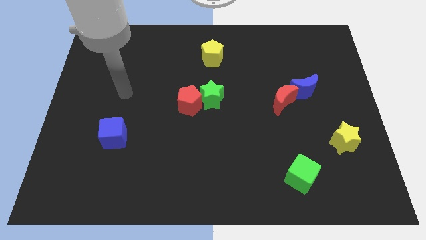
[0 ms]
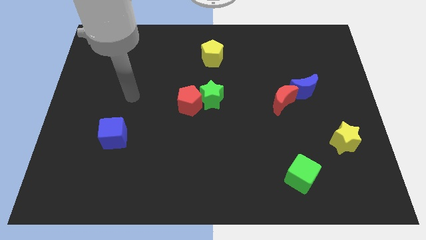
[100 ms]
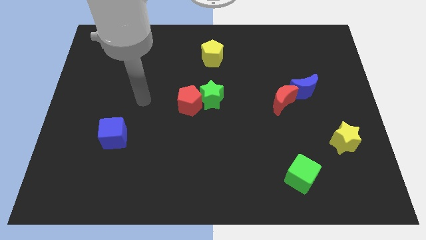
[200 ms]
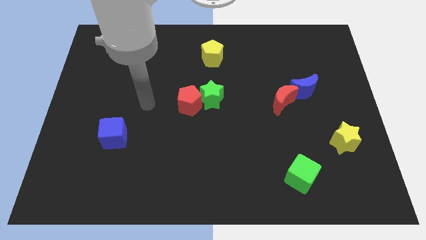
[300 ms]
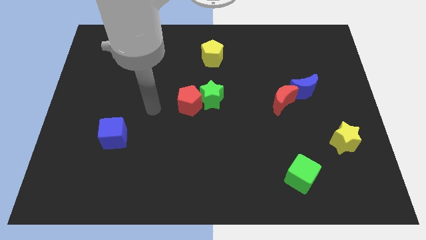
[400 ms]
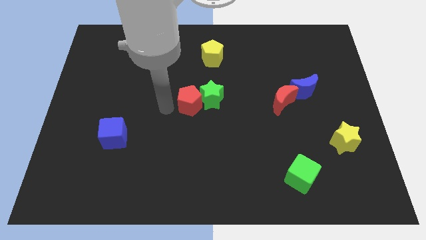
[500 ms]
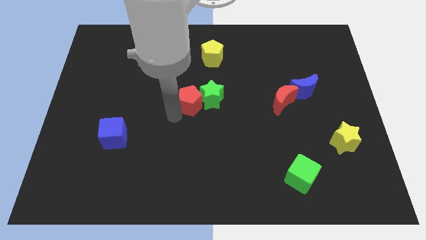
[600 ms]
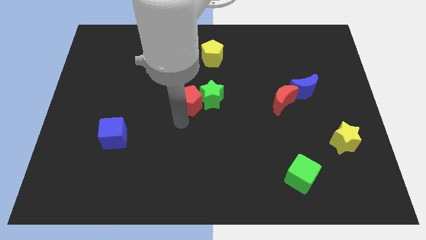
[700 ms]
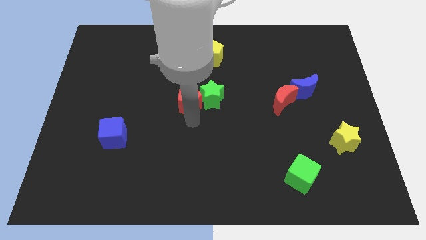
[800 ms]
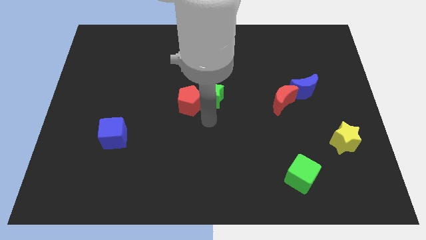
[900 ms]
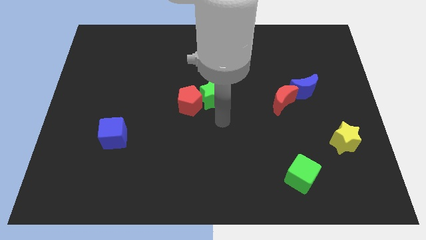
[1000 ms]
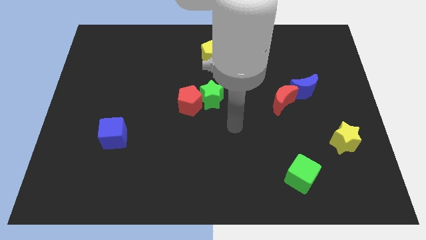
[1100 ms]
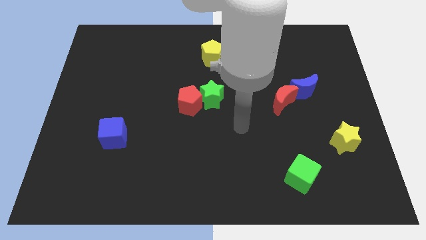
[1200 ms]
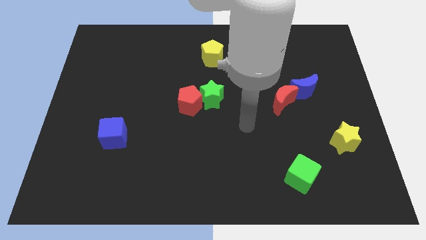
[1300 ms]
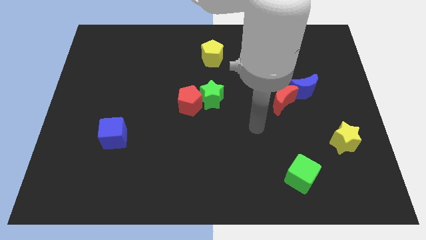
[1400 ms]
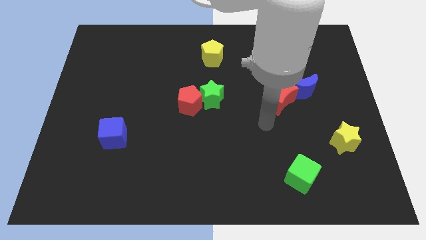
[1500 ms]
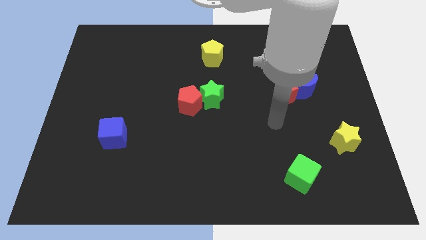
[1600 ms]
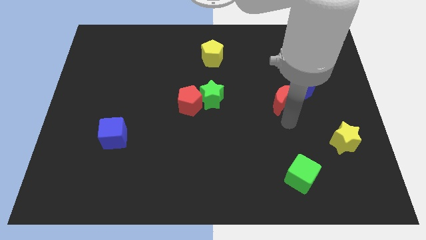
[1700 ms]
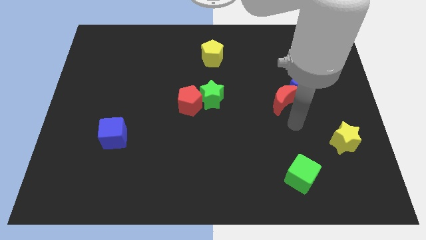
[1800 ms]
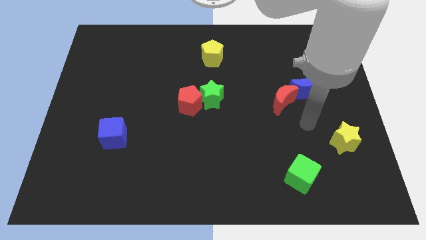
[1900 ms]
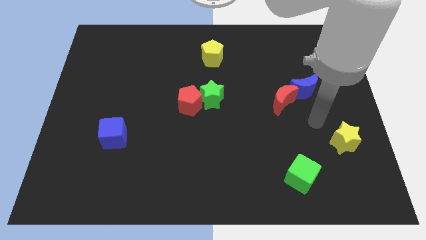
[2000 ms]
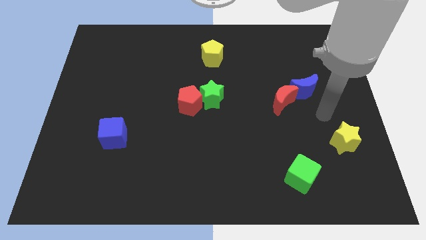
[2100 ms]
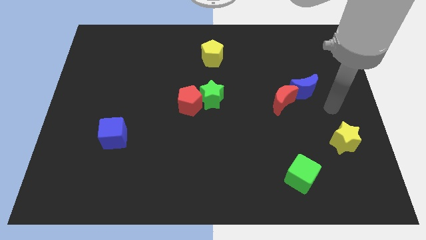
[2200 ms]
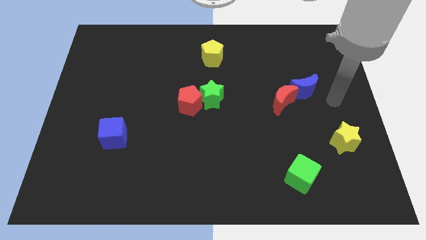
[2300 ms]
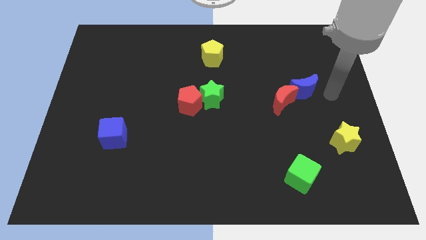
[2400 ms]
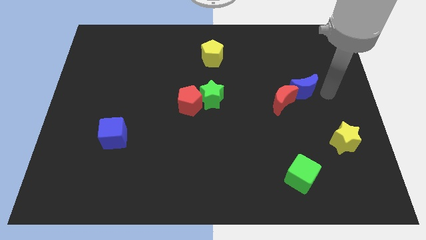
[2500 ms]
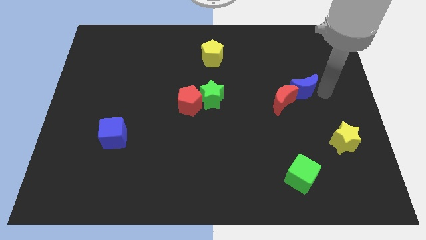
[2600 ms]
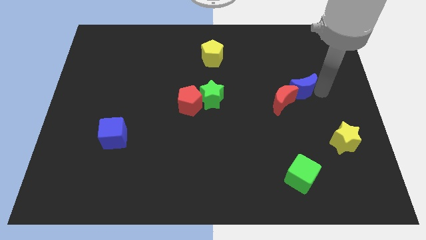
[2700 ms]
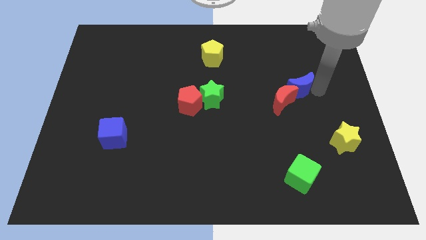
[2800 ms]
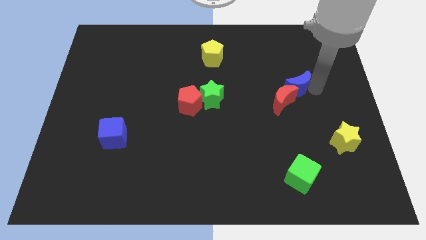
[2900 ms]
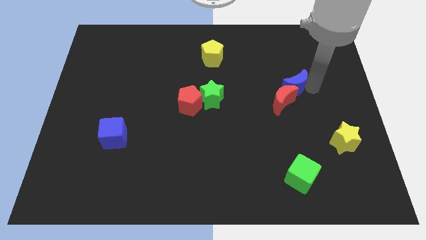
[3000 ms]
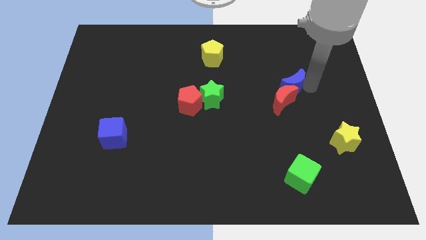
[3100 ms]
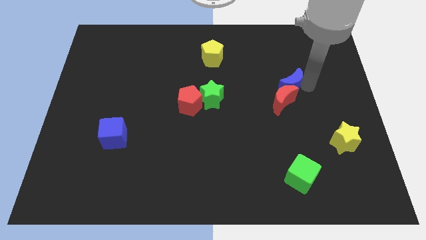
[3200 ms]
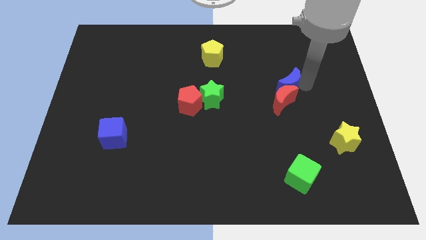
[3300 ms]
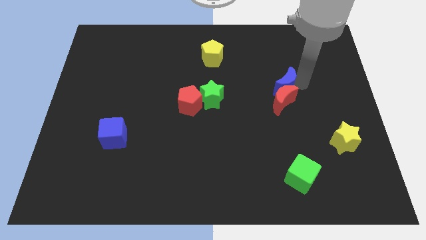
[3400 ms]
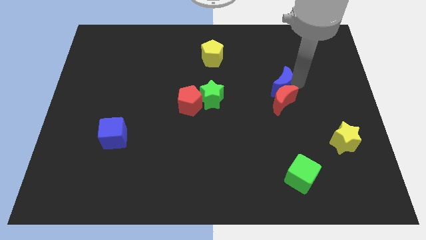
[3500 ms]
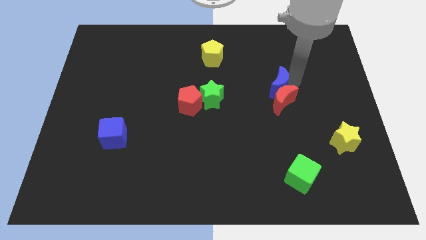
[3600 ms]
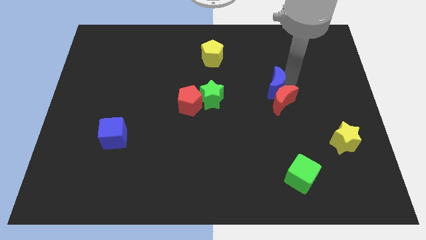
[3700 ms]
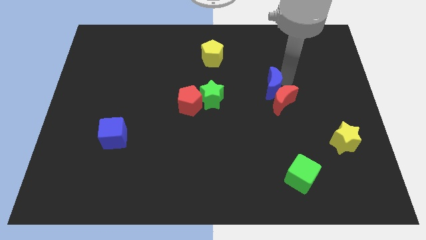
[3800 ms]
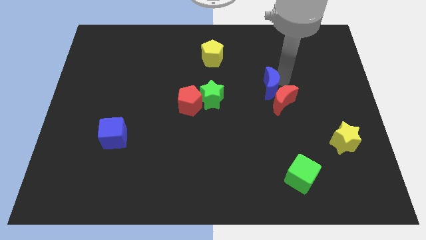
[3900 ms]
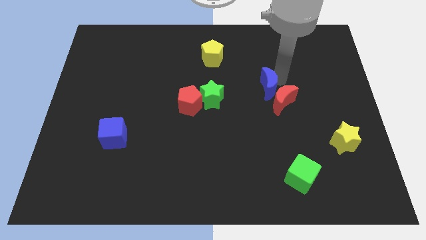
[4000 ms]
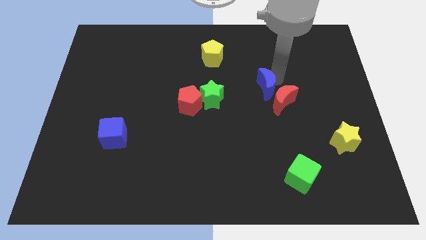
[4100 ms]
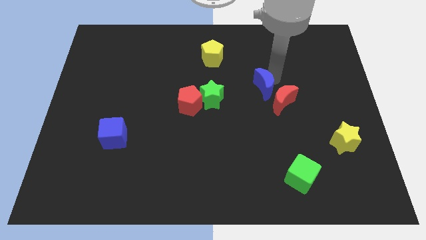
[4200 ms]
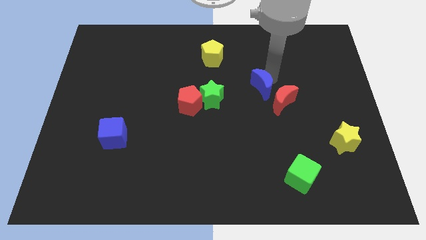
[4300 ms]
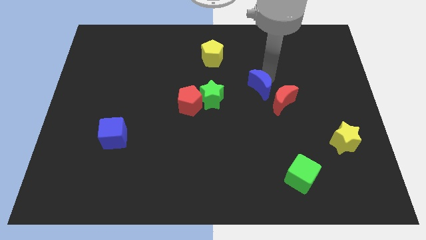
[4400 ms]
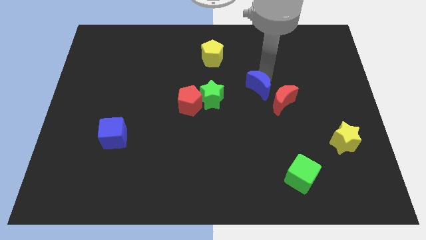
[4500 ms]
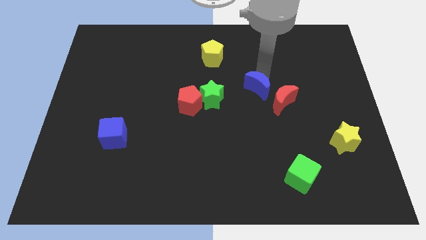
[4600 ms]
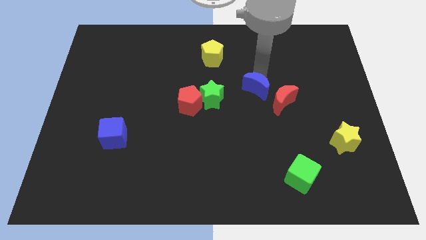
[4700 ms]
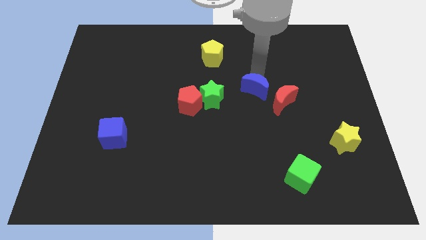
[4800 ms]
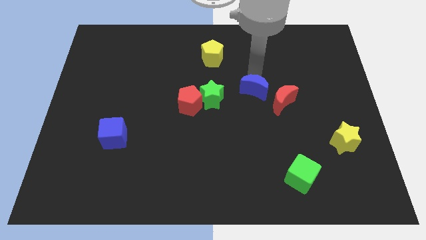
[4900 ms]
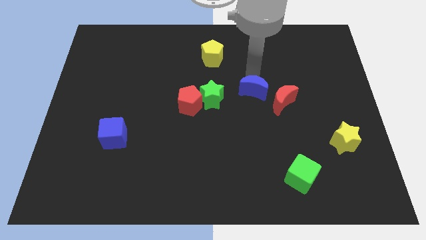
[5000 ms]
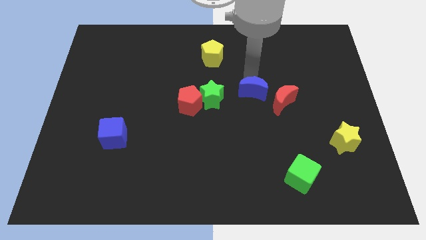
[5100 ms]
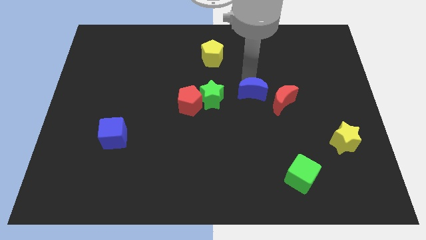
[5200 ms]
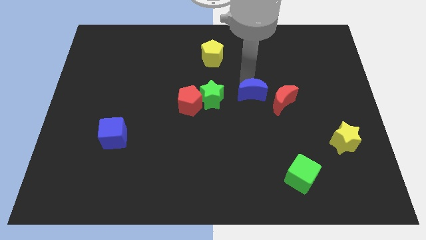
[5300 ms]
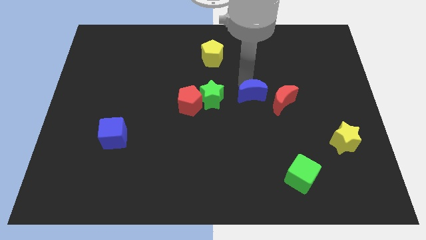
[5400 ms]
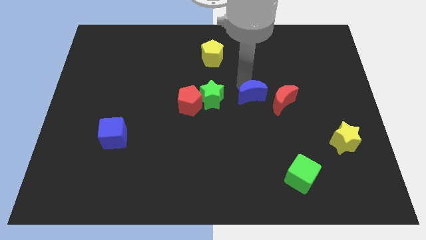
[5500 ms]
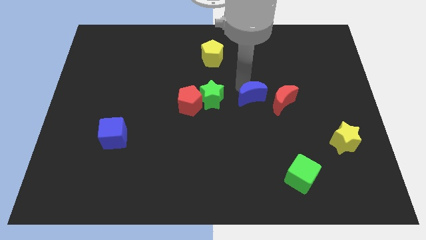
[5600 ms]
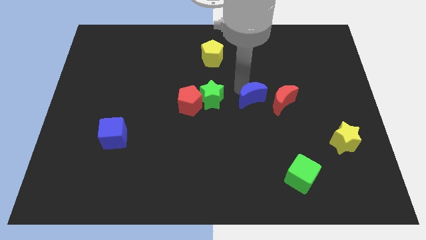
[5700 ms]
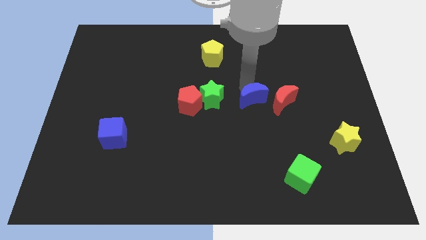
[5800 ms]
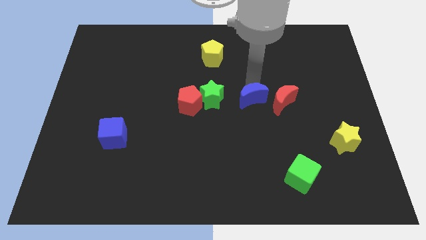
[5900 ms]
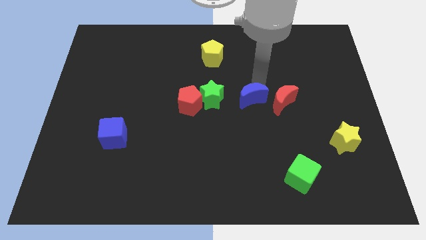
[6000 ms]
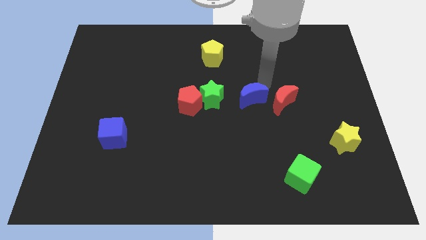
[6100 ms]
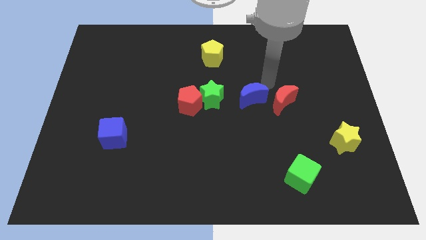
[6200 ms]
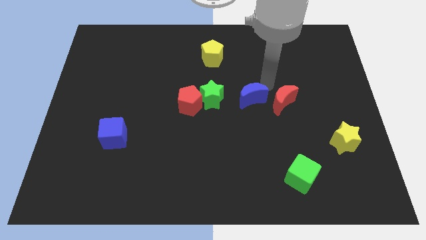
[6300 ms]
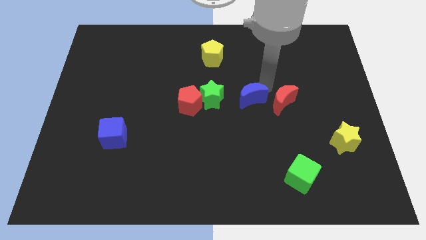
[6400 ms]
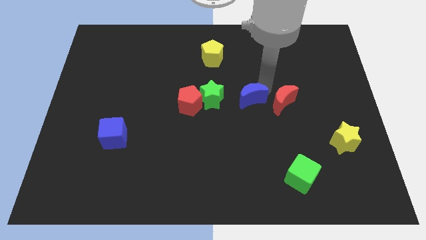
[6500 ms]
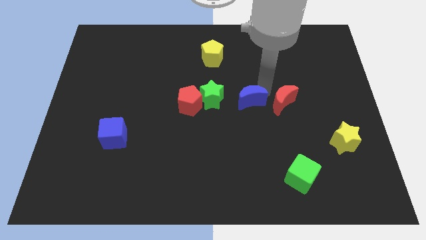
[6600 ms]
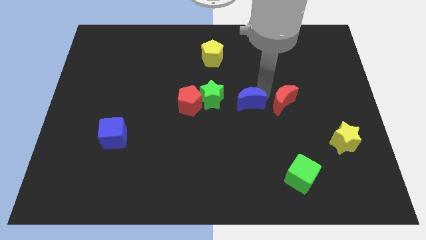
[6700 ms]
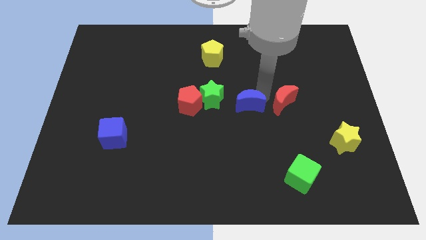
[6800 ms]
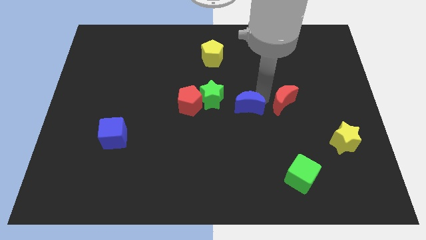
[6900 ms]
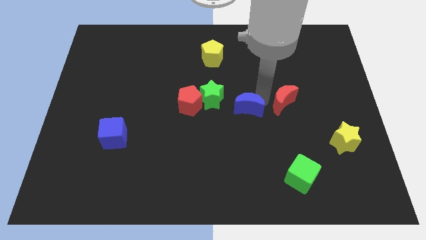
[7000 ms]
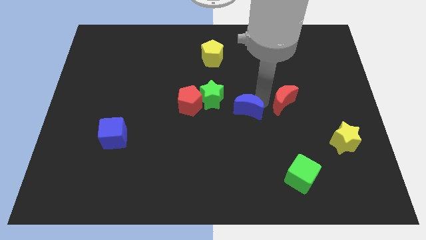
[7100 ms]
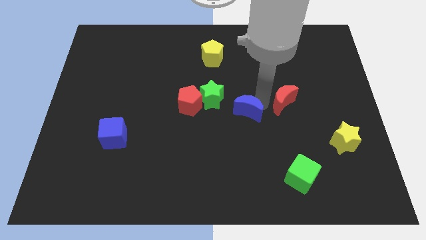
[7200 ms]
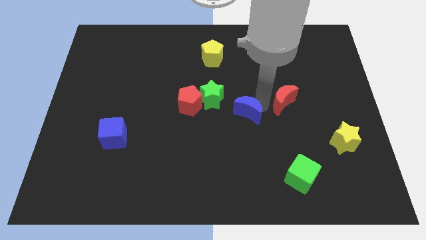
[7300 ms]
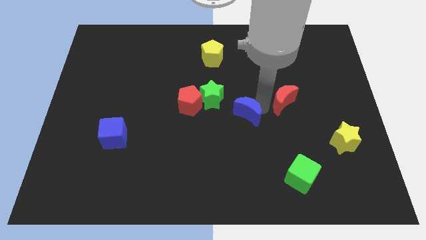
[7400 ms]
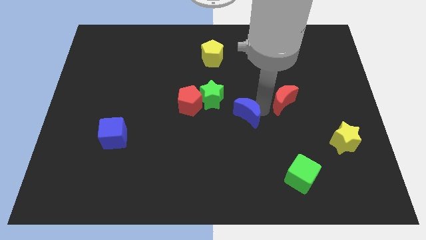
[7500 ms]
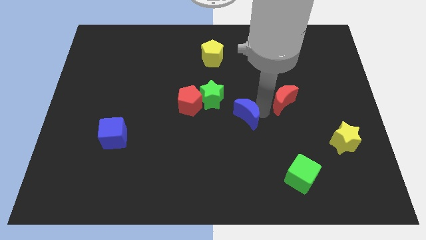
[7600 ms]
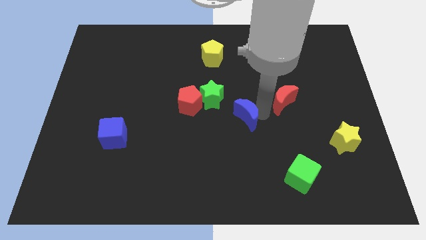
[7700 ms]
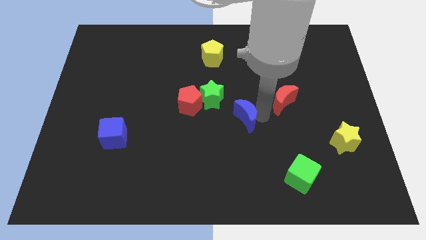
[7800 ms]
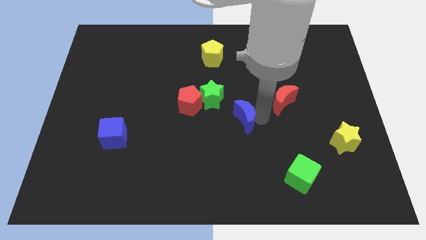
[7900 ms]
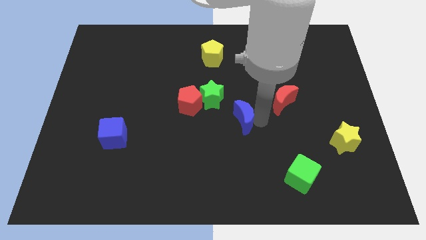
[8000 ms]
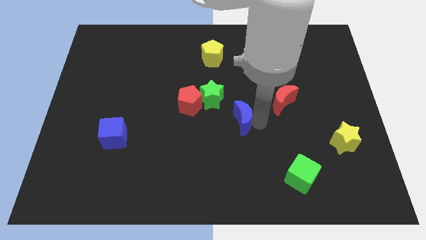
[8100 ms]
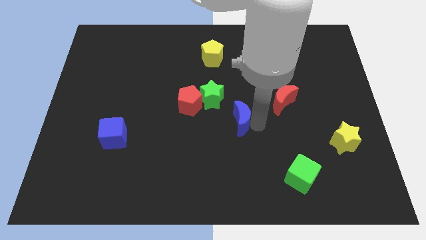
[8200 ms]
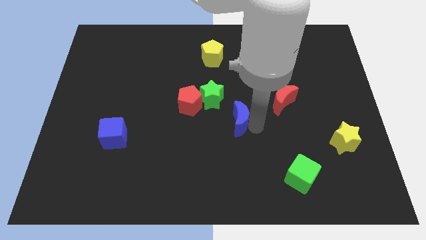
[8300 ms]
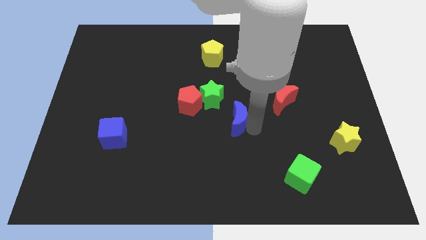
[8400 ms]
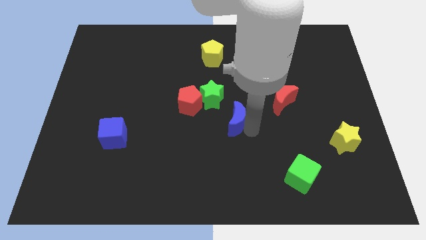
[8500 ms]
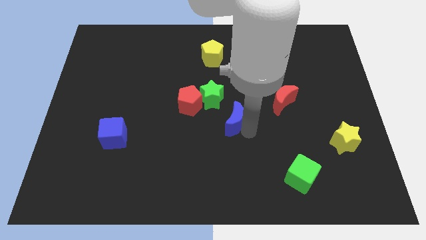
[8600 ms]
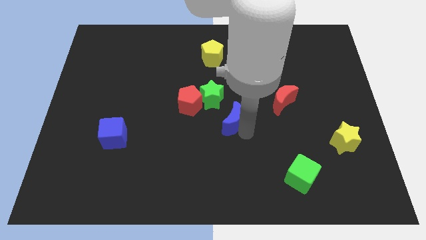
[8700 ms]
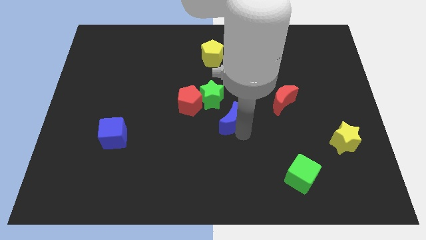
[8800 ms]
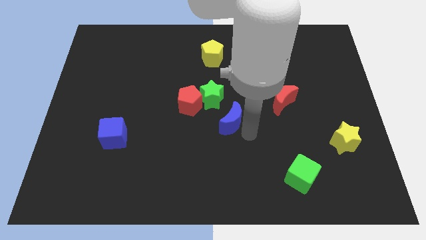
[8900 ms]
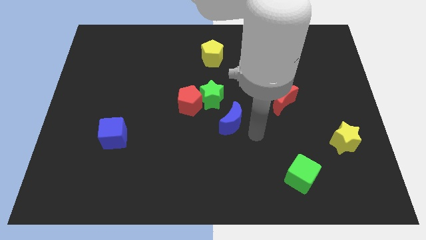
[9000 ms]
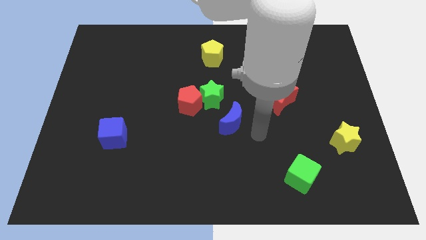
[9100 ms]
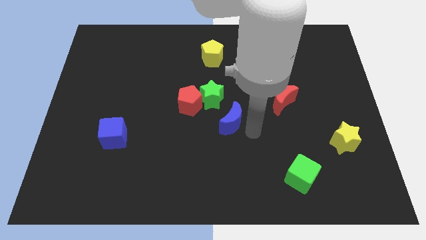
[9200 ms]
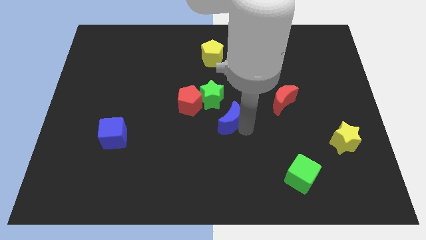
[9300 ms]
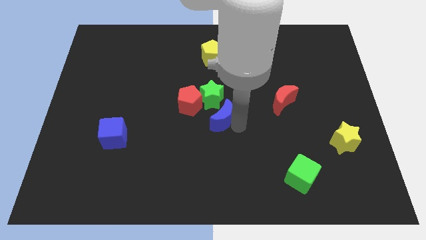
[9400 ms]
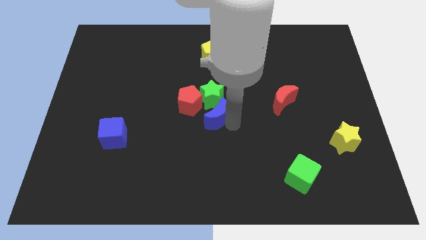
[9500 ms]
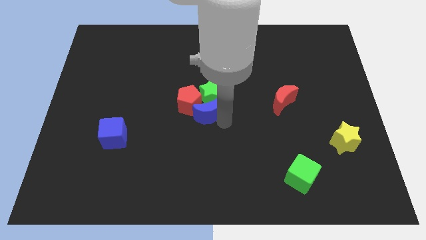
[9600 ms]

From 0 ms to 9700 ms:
slide the blue moon close to the red pentagon
